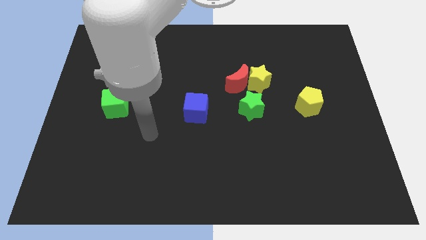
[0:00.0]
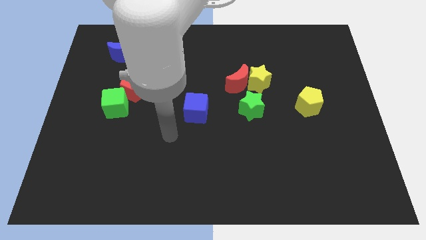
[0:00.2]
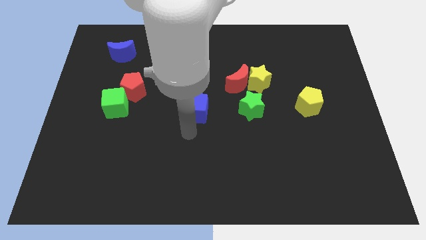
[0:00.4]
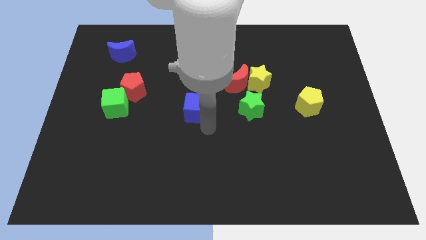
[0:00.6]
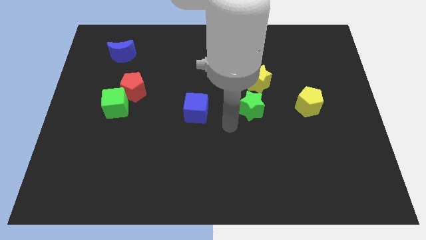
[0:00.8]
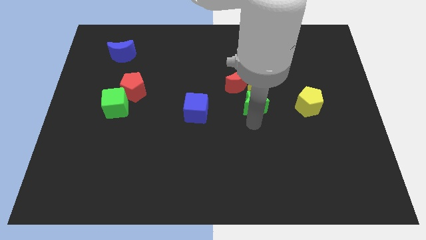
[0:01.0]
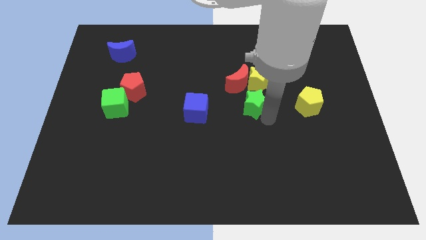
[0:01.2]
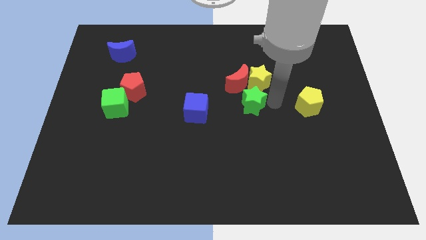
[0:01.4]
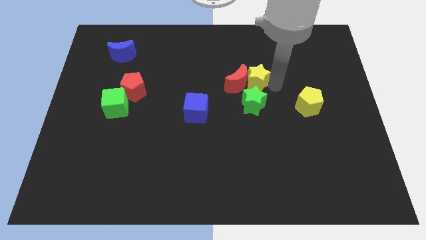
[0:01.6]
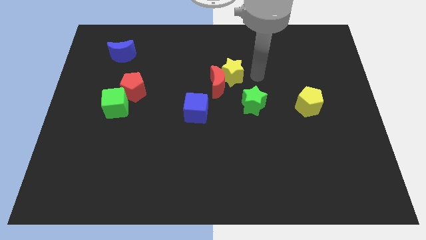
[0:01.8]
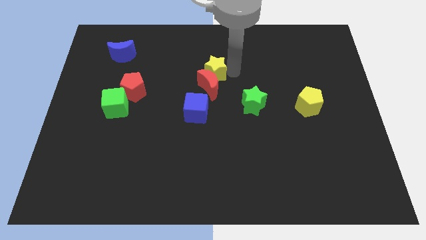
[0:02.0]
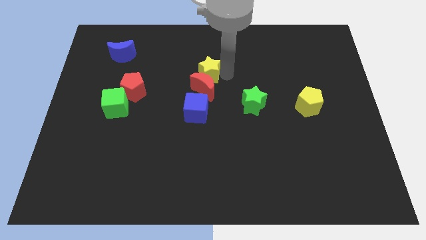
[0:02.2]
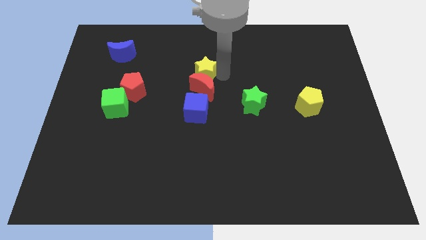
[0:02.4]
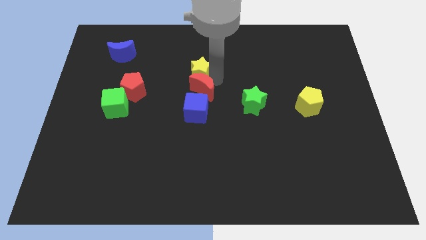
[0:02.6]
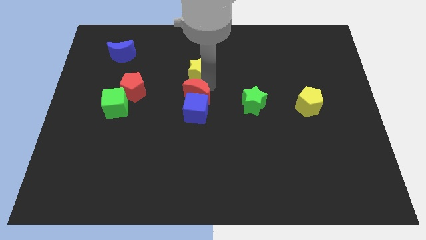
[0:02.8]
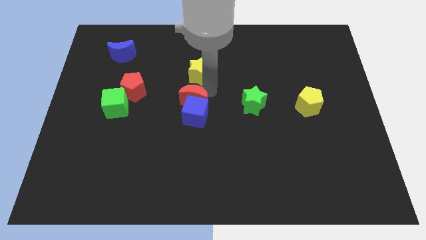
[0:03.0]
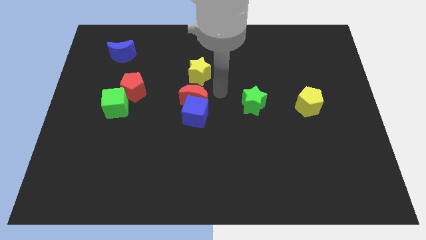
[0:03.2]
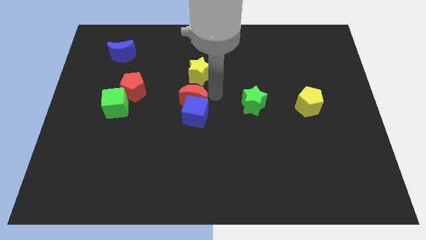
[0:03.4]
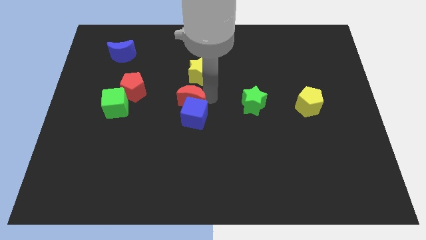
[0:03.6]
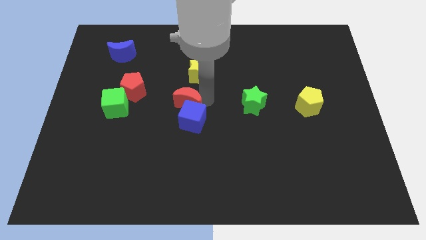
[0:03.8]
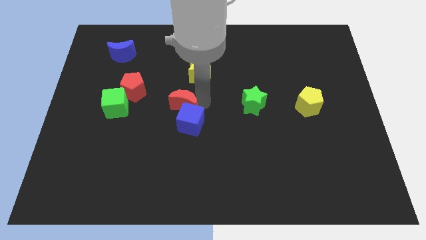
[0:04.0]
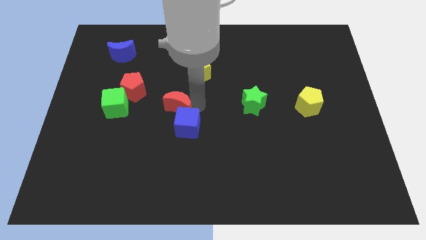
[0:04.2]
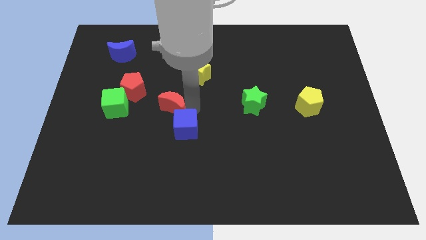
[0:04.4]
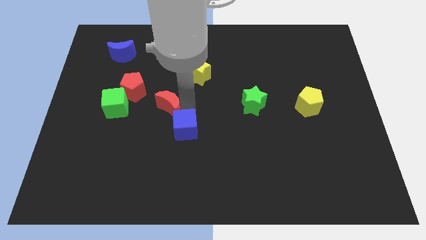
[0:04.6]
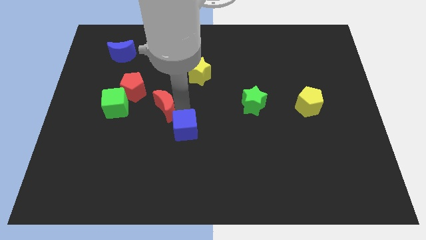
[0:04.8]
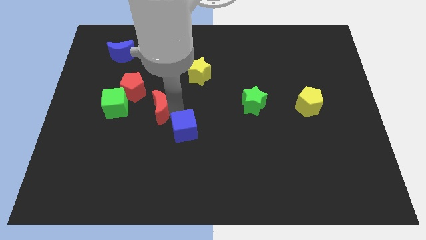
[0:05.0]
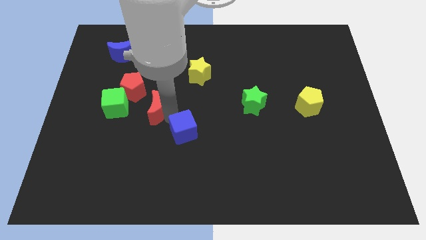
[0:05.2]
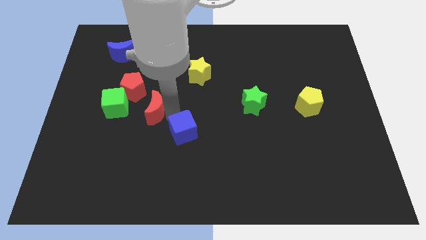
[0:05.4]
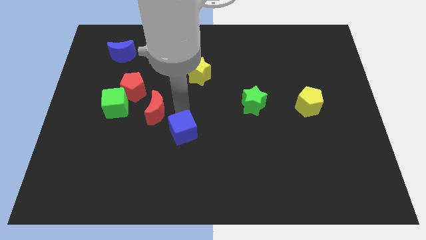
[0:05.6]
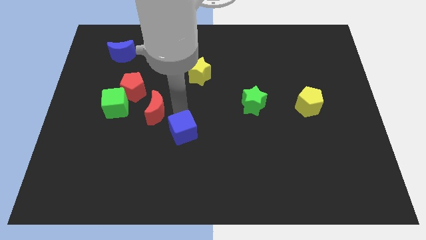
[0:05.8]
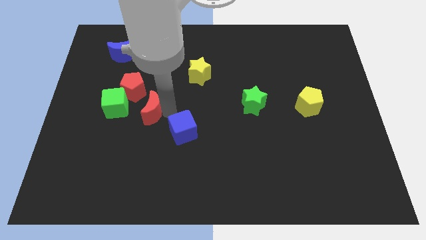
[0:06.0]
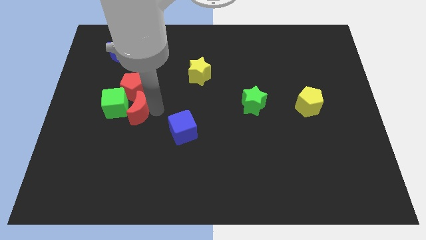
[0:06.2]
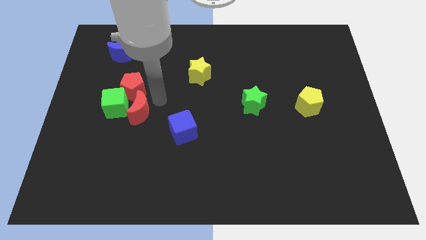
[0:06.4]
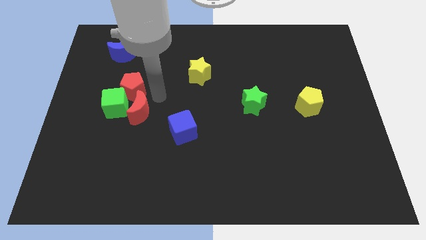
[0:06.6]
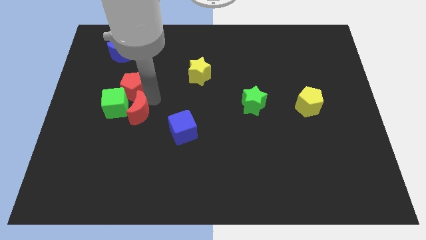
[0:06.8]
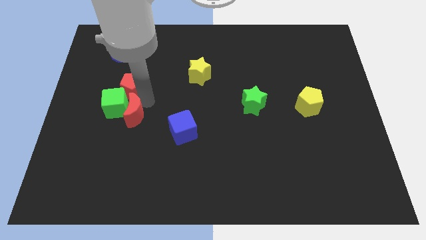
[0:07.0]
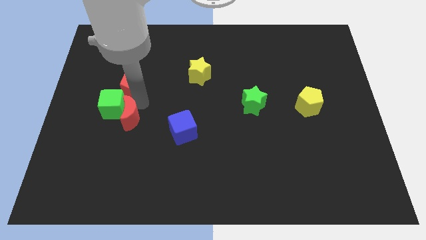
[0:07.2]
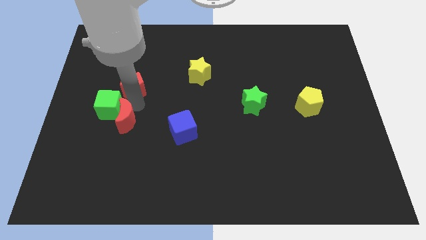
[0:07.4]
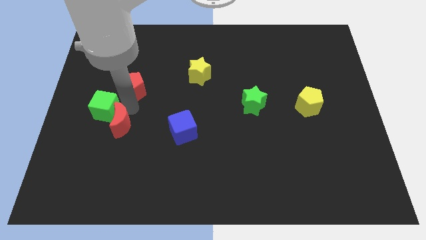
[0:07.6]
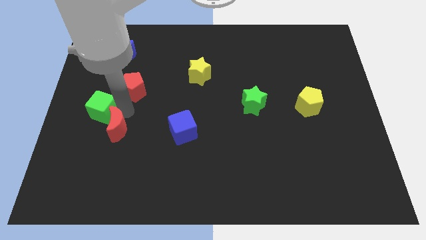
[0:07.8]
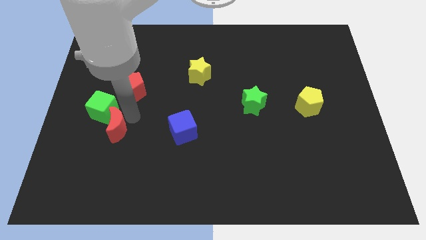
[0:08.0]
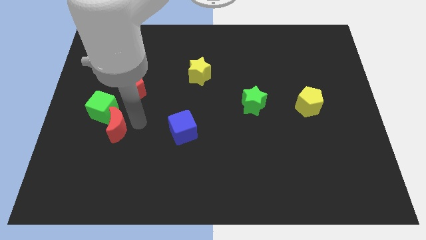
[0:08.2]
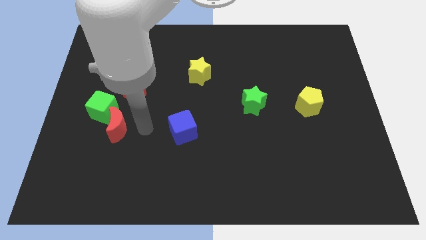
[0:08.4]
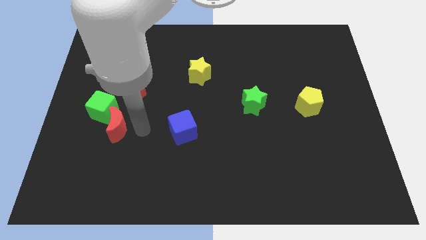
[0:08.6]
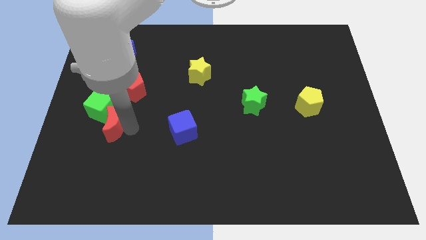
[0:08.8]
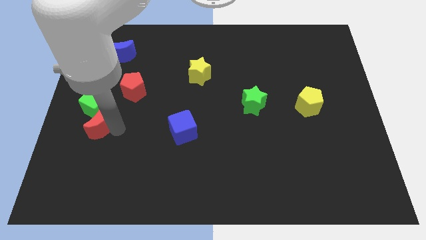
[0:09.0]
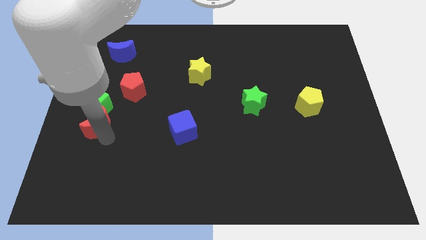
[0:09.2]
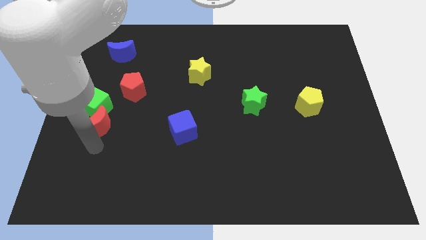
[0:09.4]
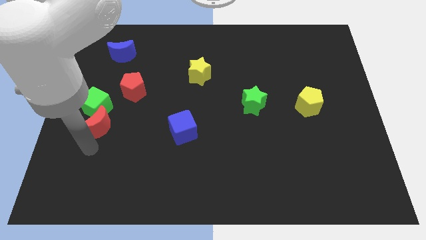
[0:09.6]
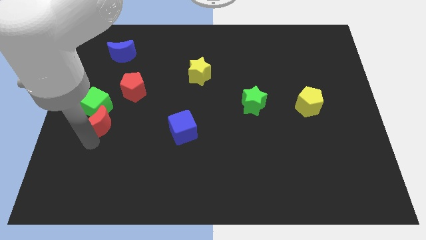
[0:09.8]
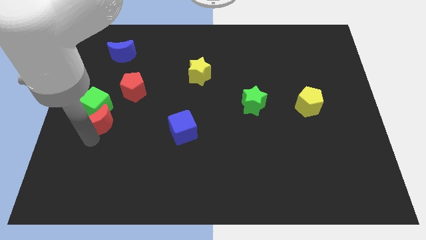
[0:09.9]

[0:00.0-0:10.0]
slide the red moon to the bottom left side of the red pentagon

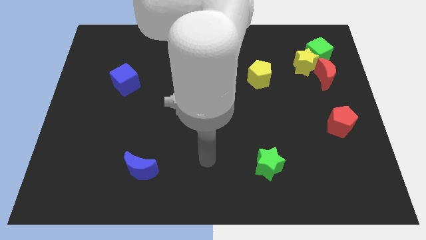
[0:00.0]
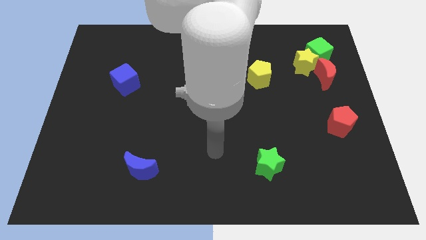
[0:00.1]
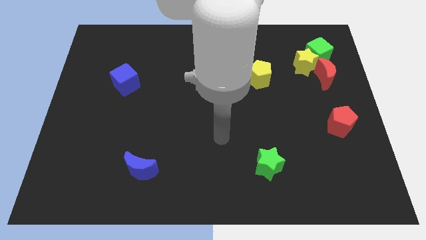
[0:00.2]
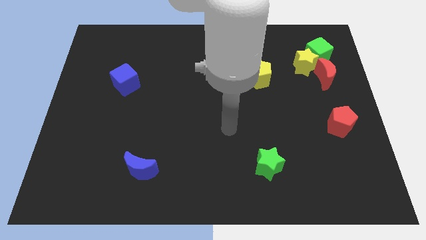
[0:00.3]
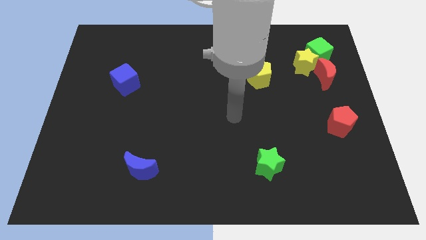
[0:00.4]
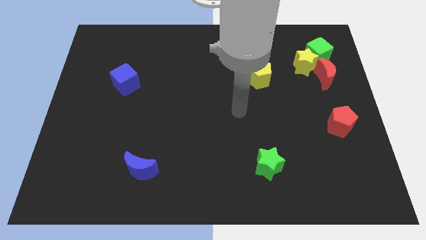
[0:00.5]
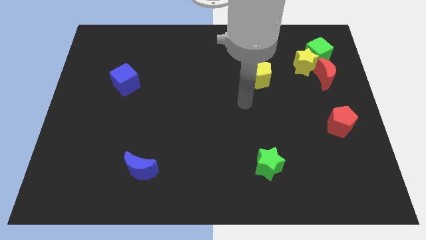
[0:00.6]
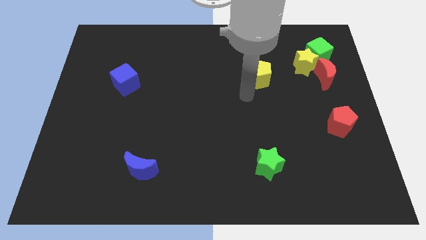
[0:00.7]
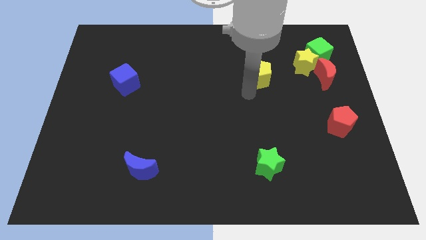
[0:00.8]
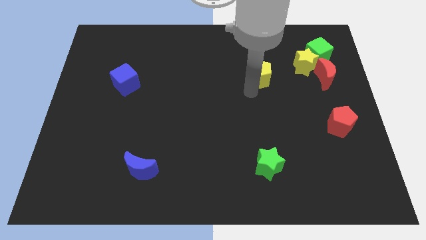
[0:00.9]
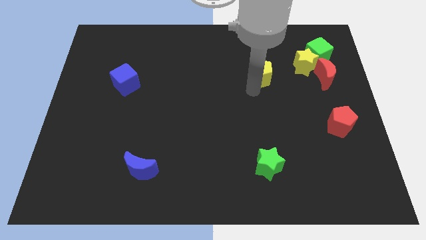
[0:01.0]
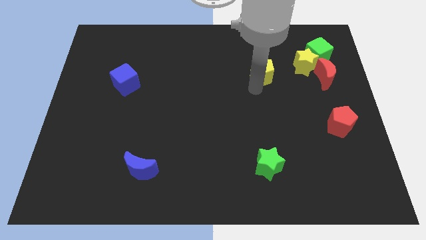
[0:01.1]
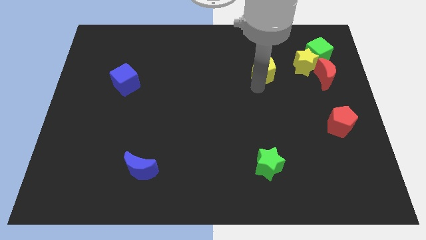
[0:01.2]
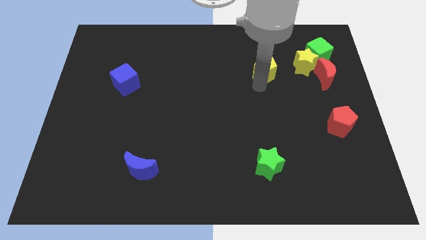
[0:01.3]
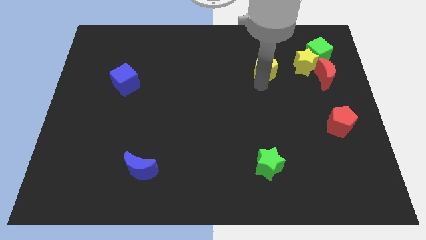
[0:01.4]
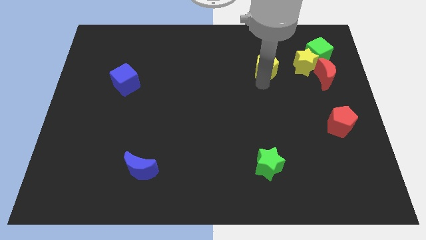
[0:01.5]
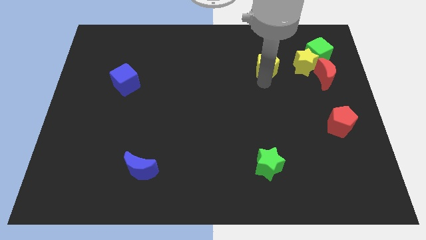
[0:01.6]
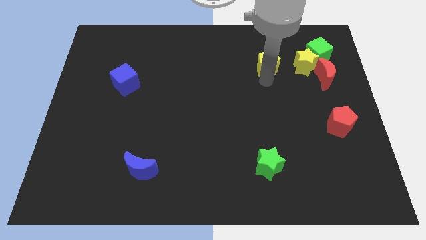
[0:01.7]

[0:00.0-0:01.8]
push the yellow pentagon to the left side of the green cube

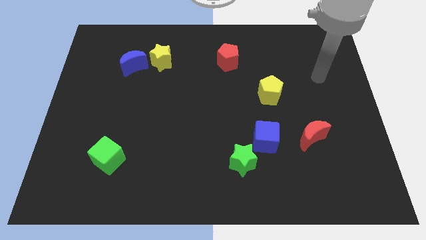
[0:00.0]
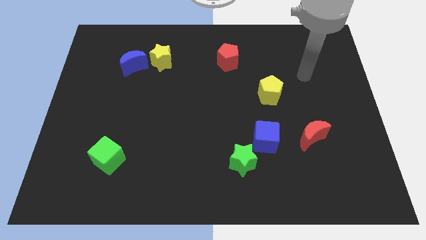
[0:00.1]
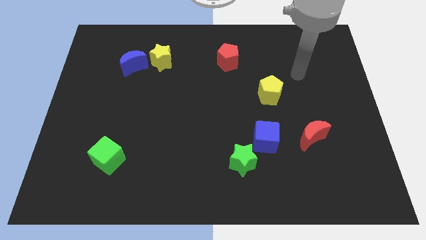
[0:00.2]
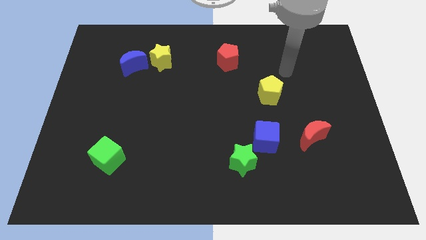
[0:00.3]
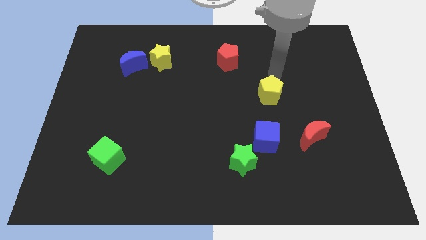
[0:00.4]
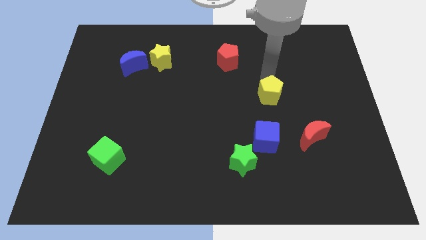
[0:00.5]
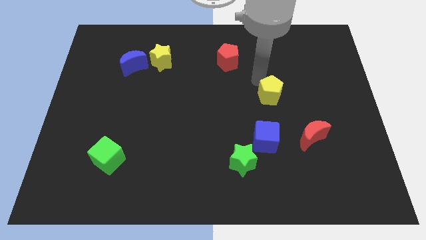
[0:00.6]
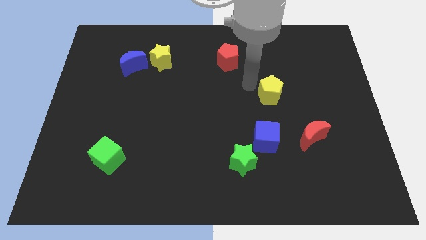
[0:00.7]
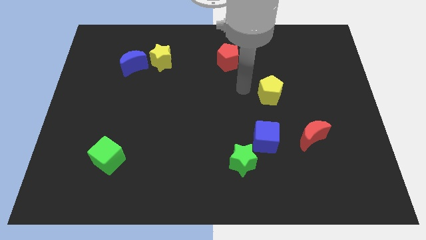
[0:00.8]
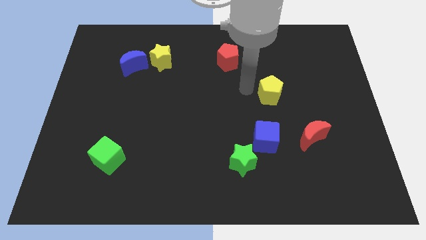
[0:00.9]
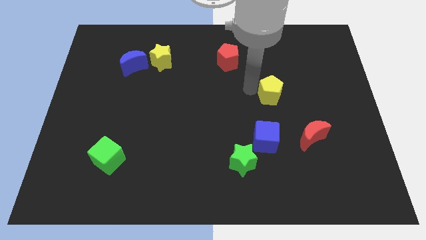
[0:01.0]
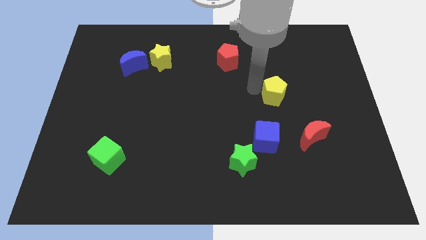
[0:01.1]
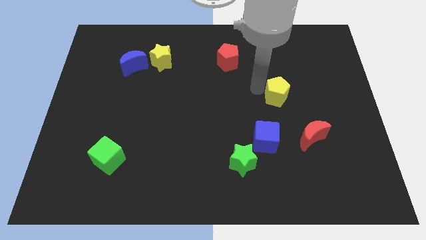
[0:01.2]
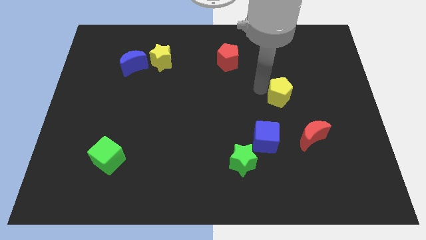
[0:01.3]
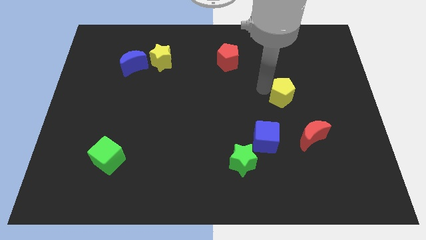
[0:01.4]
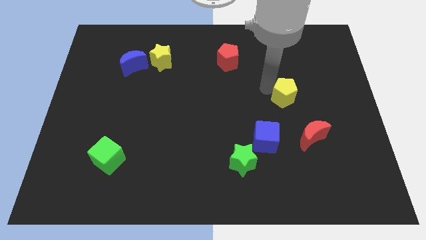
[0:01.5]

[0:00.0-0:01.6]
move the yellow pentagon to the top side of the red moon
